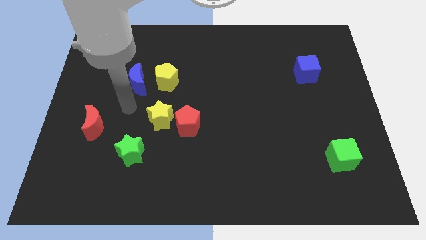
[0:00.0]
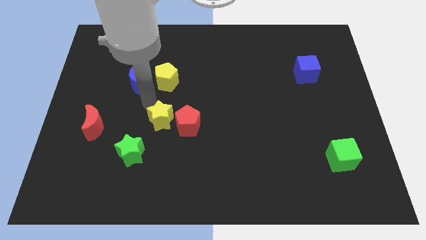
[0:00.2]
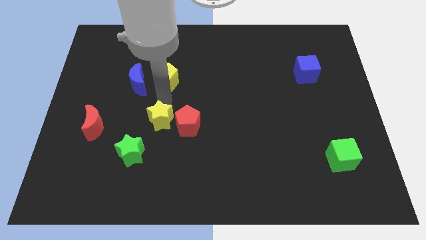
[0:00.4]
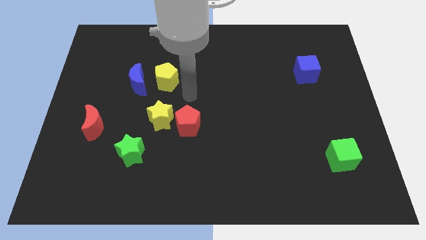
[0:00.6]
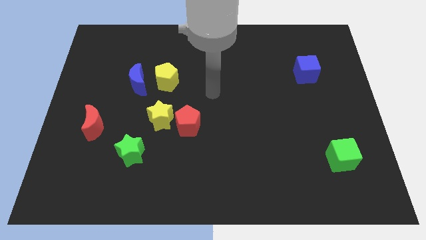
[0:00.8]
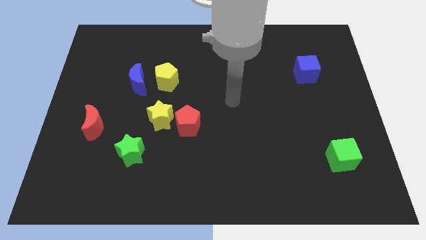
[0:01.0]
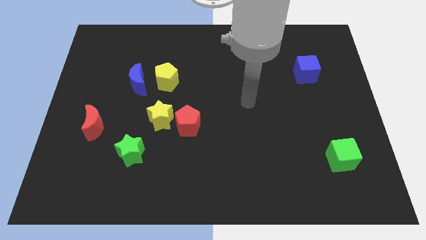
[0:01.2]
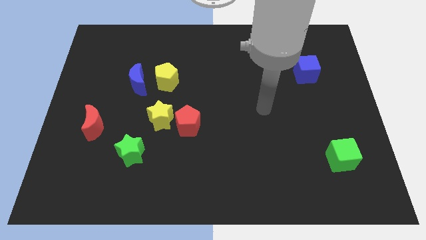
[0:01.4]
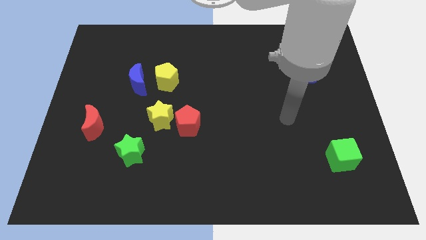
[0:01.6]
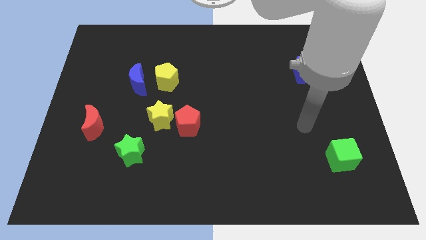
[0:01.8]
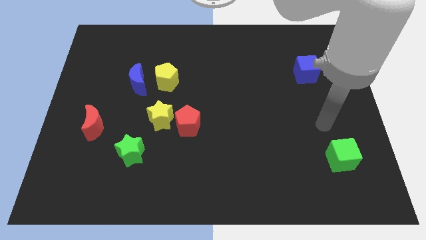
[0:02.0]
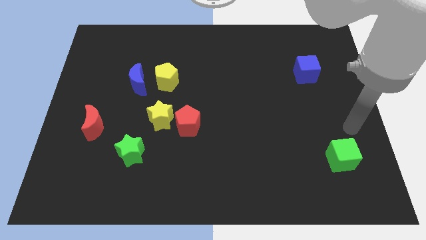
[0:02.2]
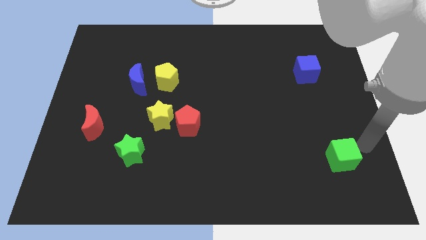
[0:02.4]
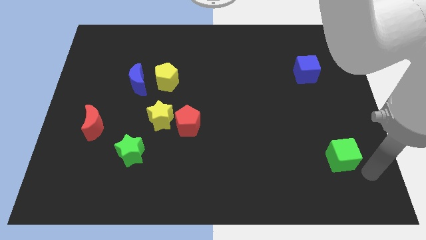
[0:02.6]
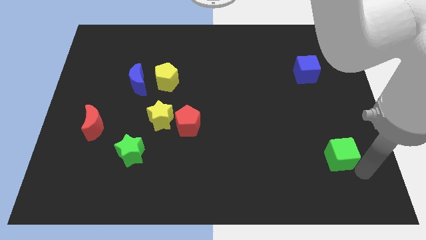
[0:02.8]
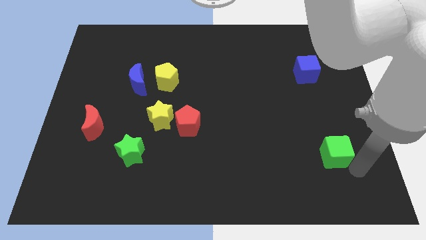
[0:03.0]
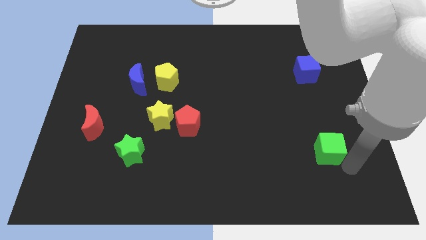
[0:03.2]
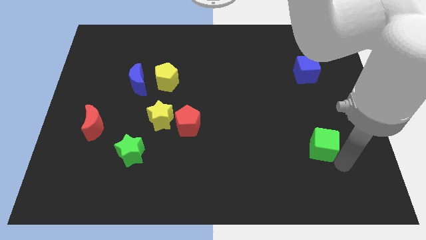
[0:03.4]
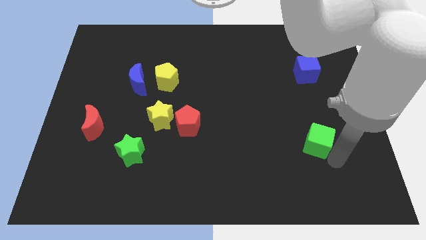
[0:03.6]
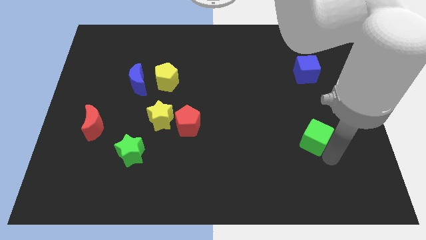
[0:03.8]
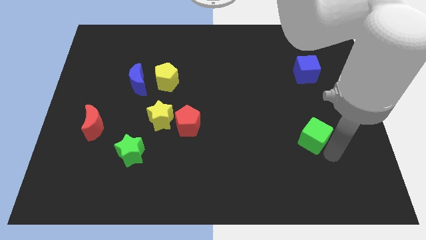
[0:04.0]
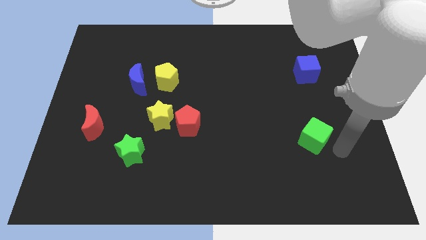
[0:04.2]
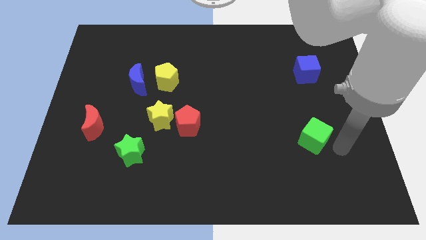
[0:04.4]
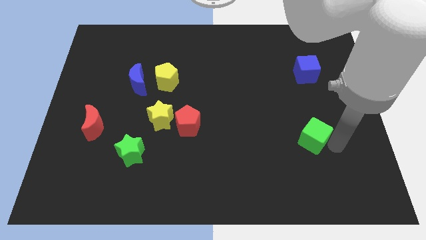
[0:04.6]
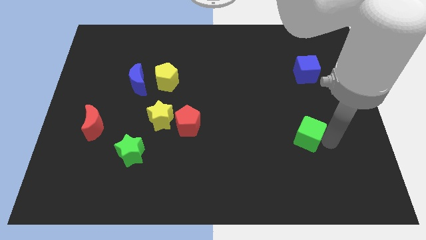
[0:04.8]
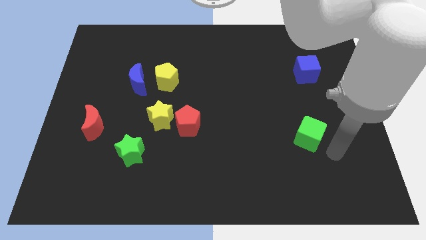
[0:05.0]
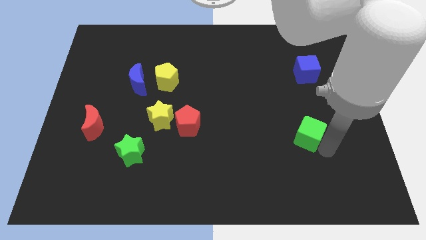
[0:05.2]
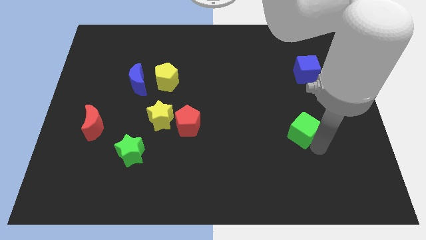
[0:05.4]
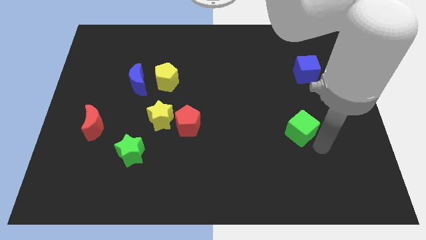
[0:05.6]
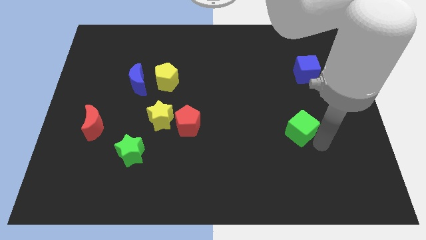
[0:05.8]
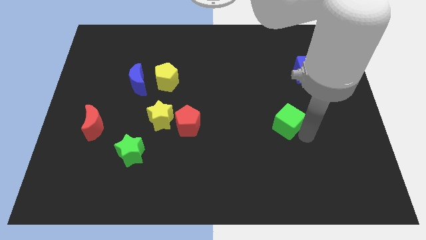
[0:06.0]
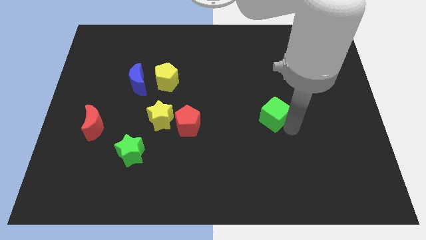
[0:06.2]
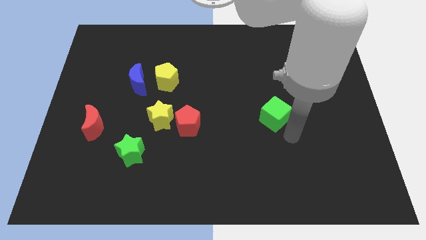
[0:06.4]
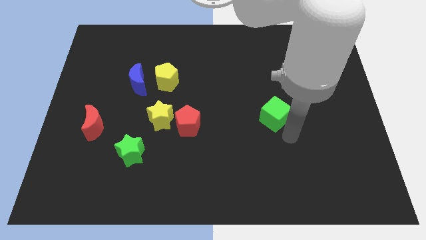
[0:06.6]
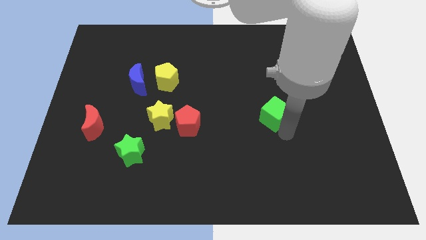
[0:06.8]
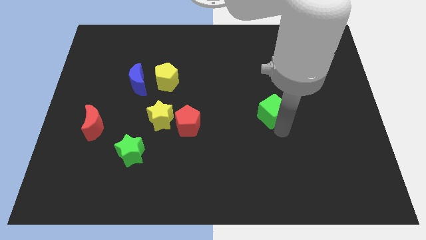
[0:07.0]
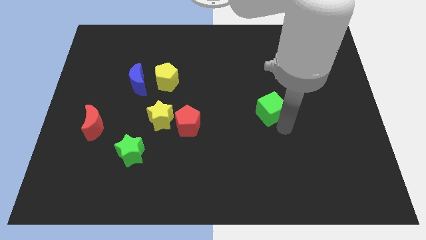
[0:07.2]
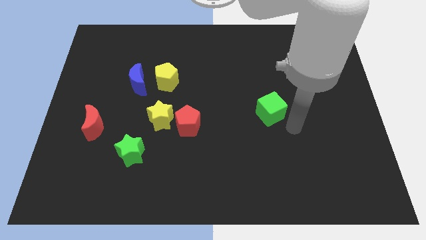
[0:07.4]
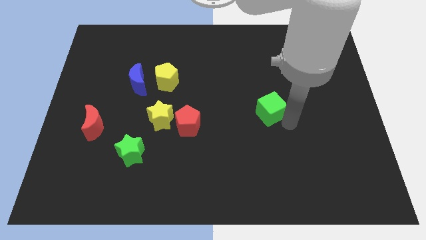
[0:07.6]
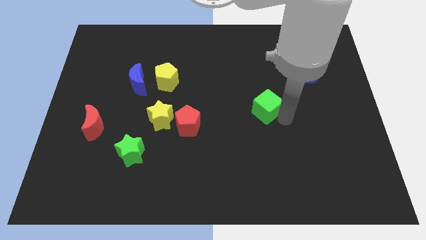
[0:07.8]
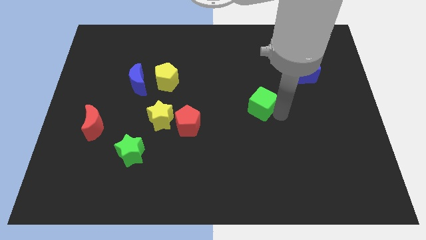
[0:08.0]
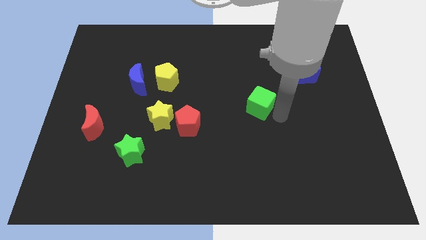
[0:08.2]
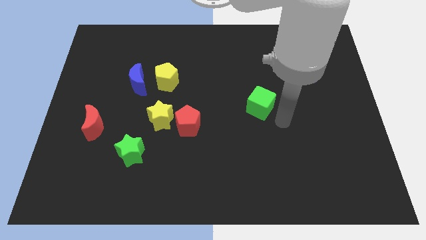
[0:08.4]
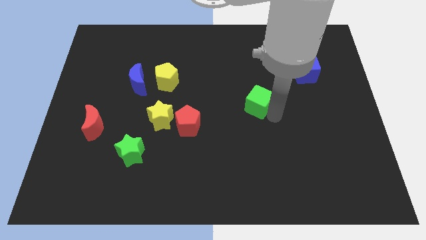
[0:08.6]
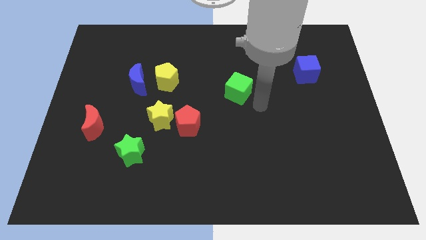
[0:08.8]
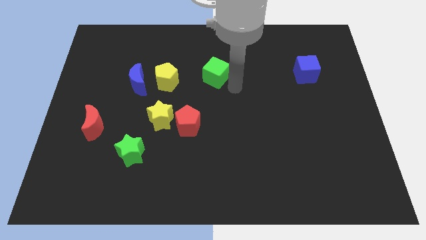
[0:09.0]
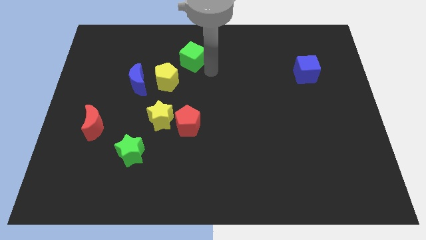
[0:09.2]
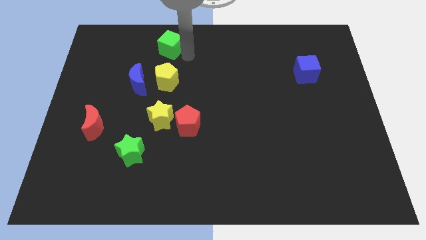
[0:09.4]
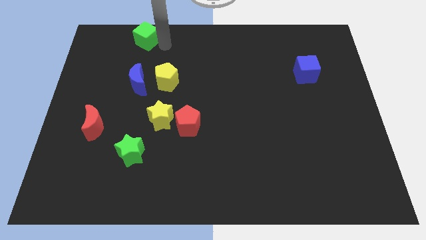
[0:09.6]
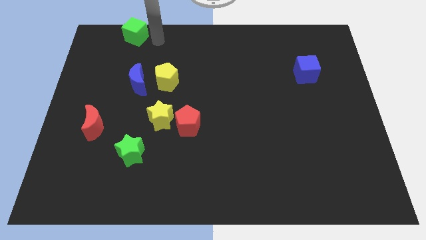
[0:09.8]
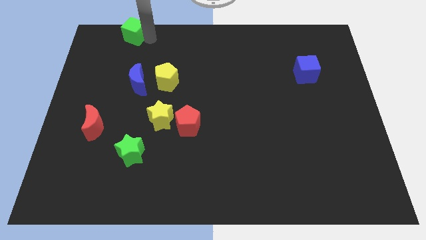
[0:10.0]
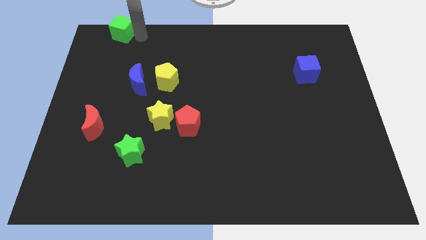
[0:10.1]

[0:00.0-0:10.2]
put the green cube to the top left

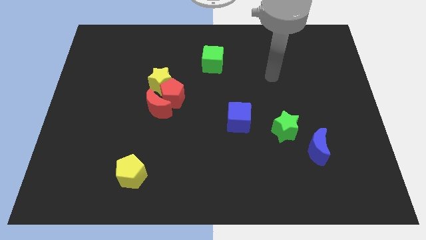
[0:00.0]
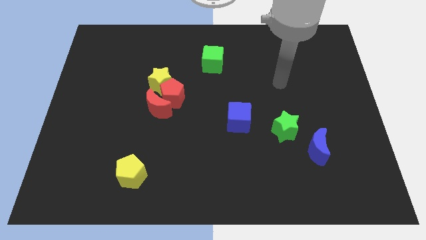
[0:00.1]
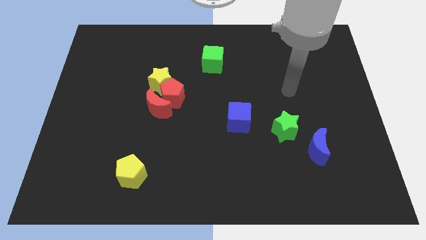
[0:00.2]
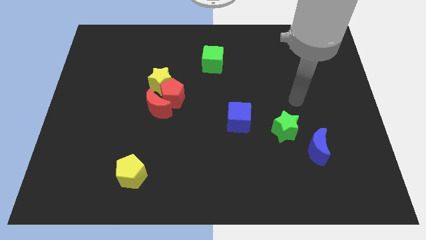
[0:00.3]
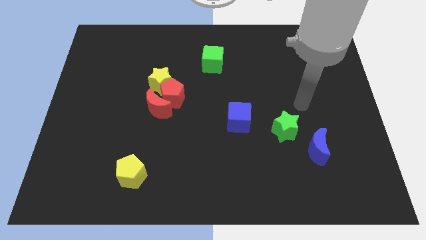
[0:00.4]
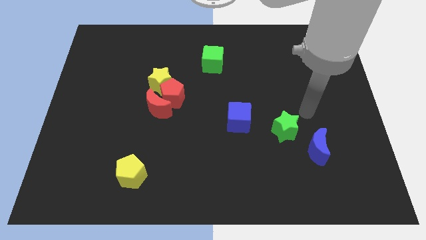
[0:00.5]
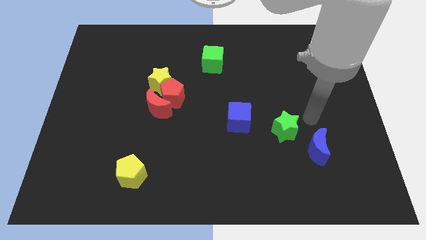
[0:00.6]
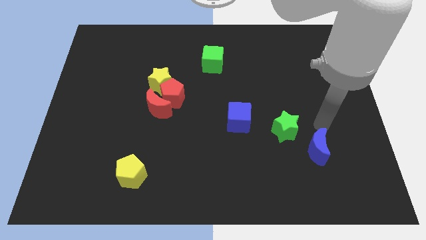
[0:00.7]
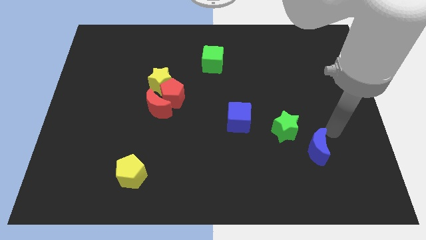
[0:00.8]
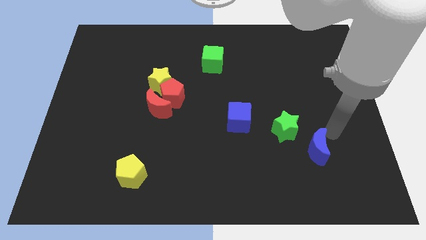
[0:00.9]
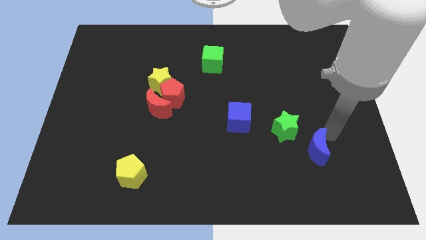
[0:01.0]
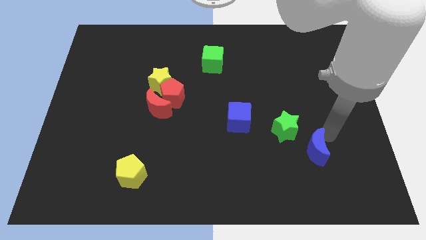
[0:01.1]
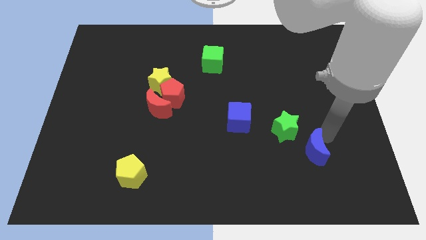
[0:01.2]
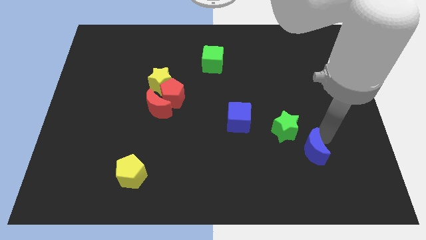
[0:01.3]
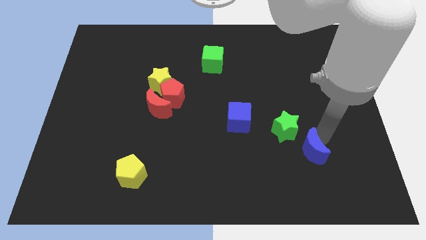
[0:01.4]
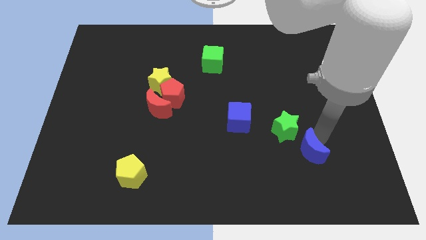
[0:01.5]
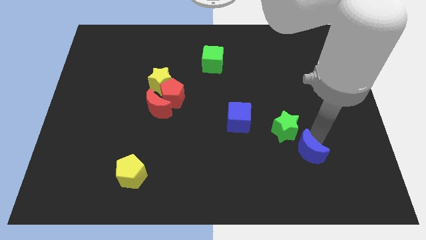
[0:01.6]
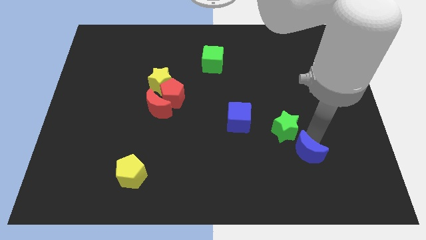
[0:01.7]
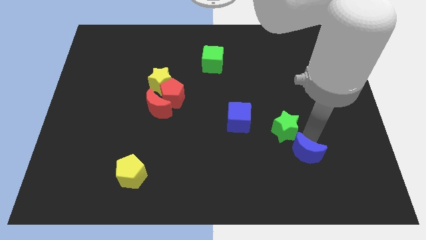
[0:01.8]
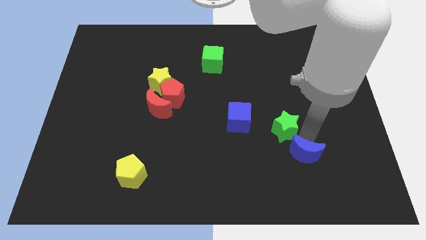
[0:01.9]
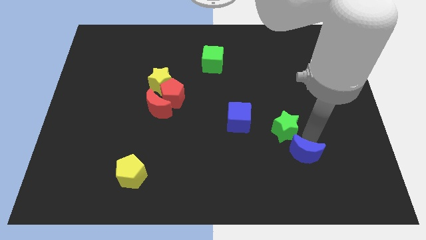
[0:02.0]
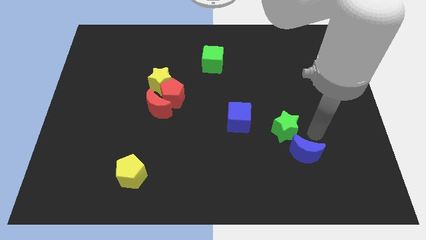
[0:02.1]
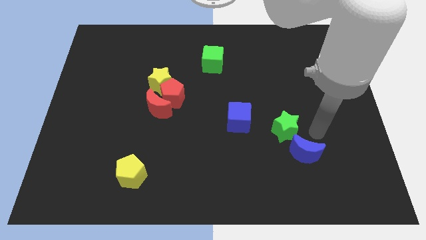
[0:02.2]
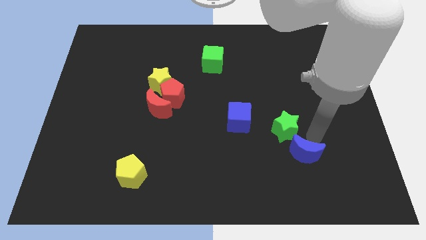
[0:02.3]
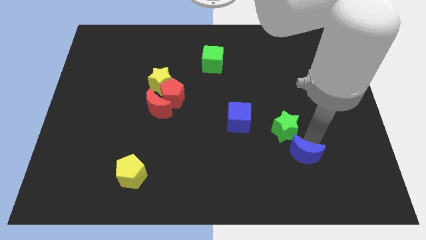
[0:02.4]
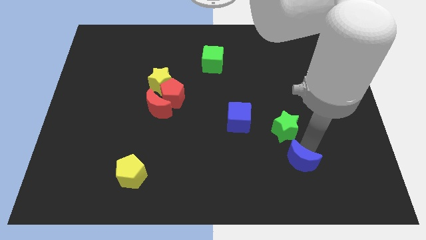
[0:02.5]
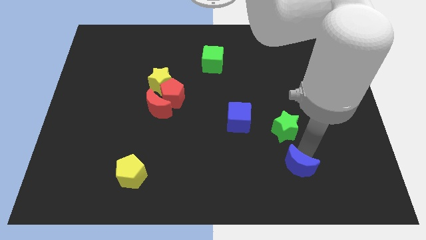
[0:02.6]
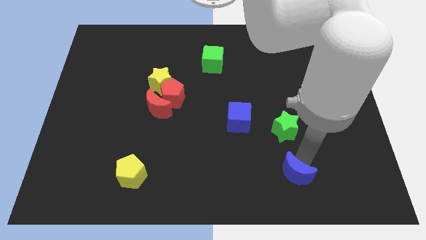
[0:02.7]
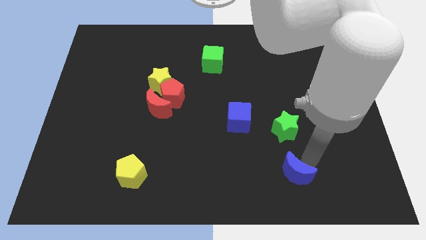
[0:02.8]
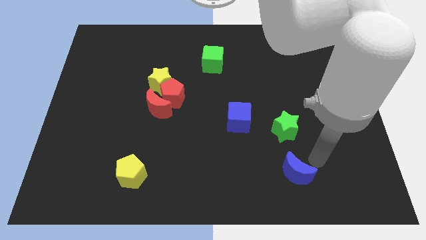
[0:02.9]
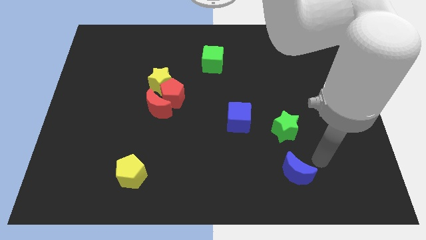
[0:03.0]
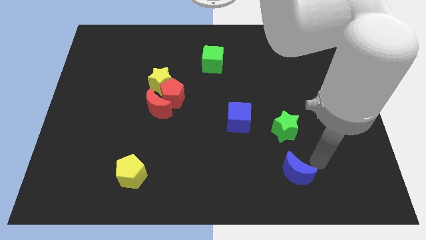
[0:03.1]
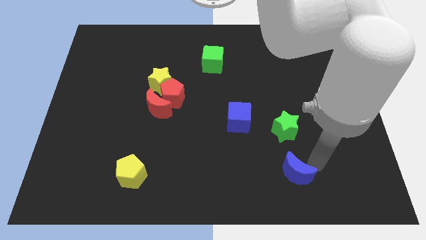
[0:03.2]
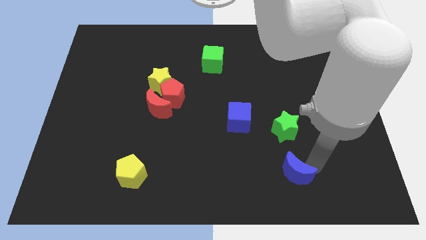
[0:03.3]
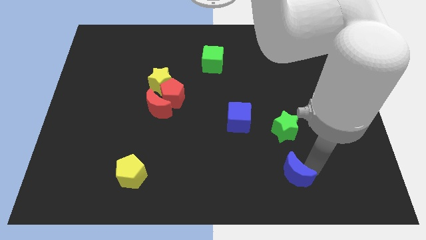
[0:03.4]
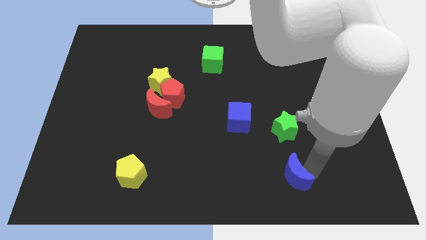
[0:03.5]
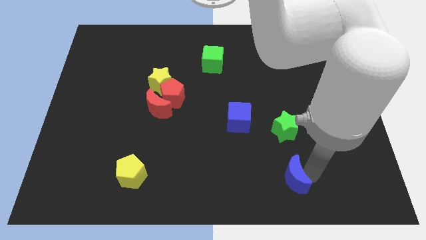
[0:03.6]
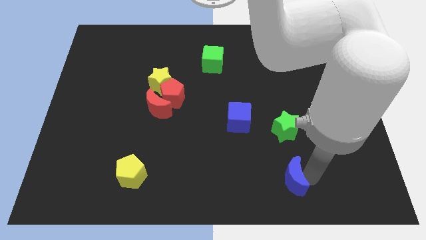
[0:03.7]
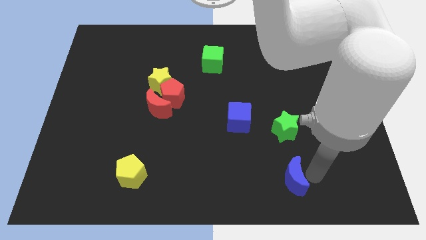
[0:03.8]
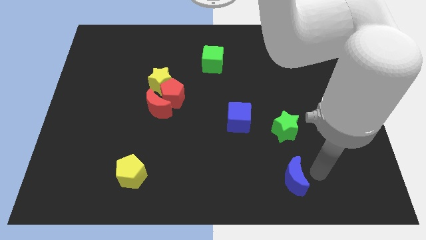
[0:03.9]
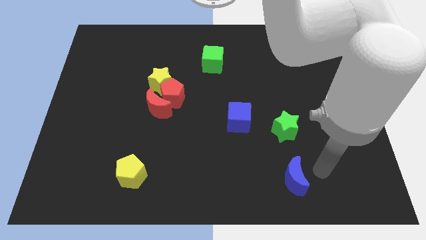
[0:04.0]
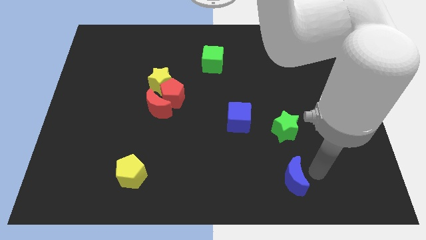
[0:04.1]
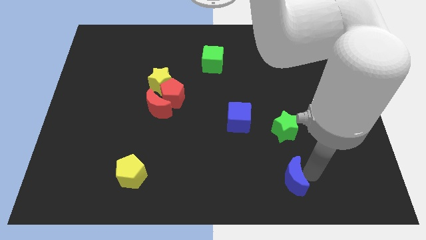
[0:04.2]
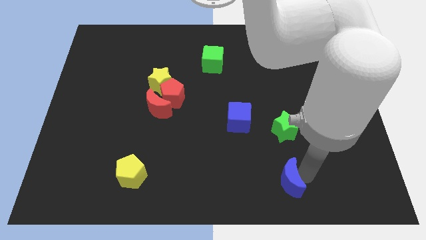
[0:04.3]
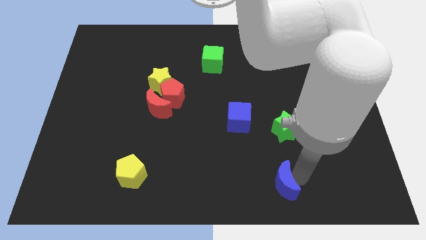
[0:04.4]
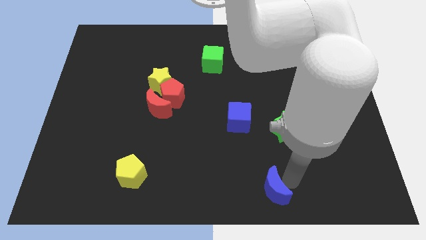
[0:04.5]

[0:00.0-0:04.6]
move the blue moon to the bottom side
